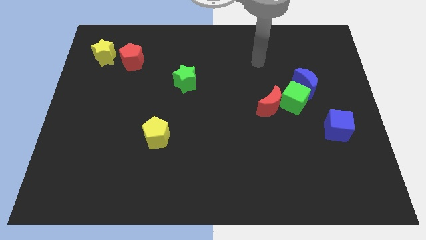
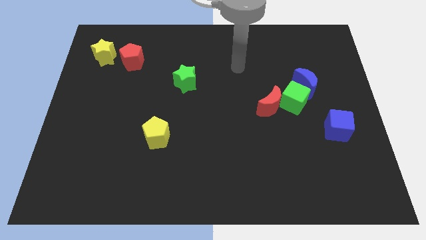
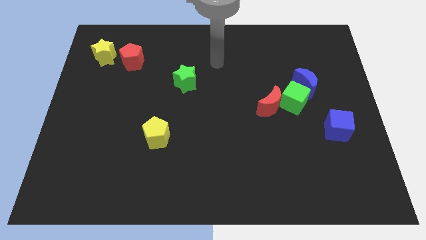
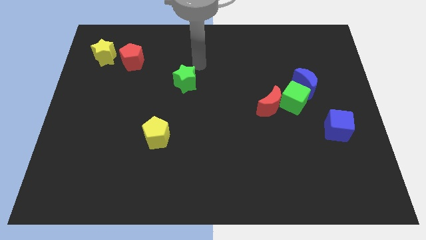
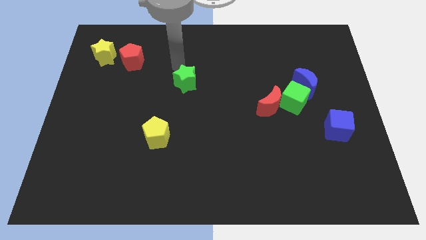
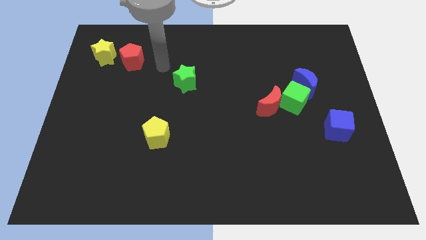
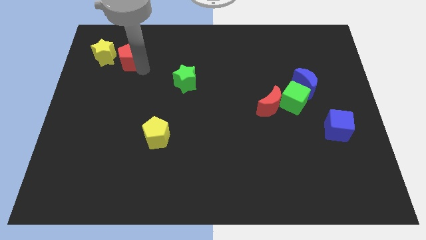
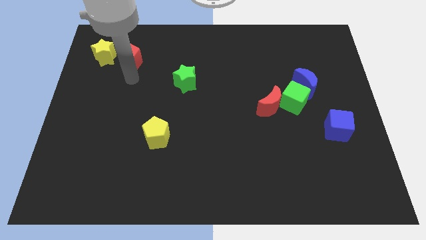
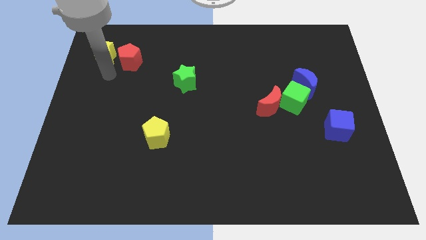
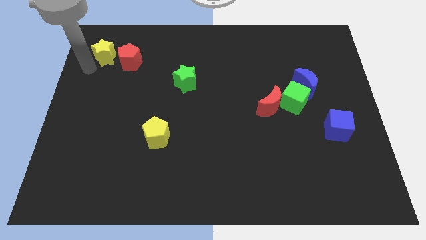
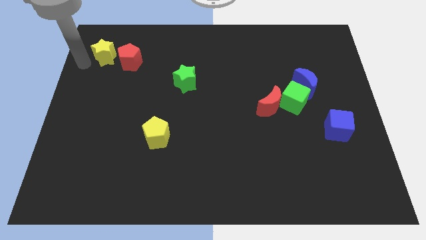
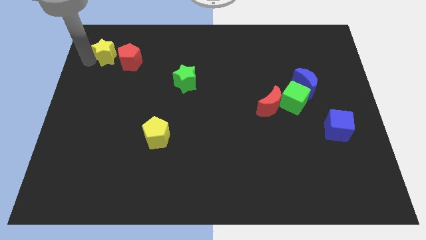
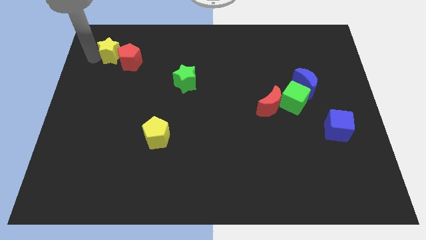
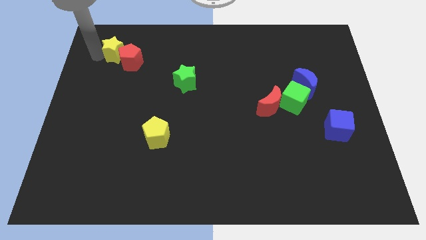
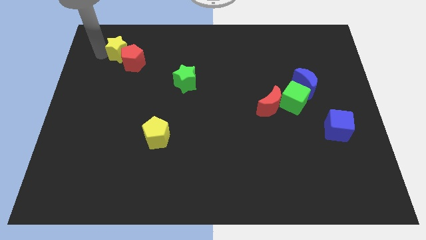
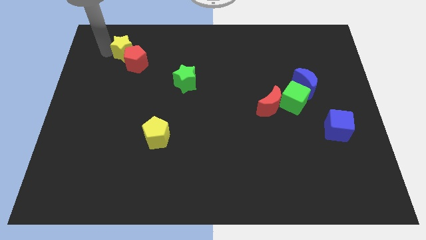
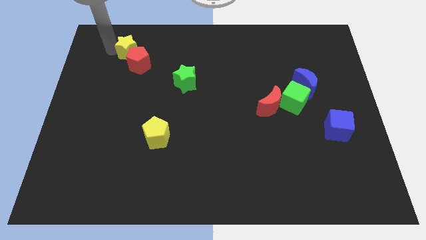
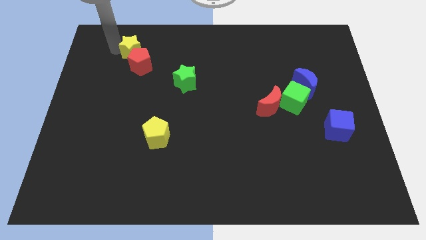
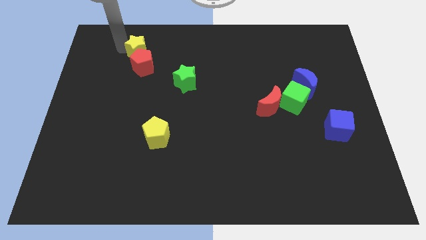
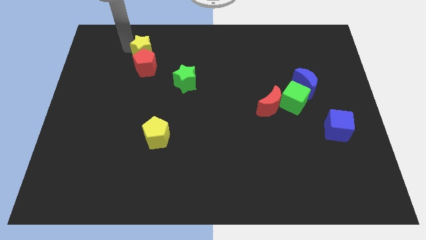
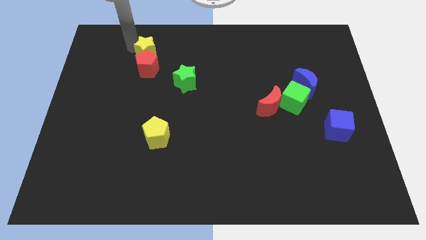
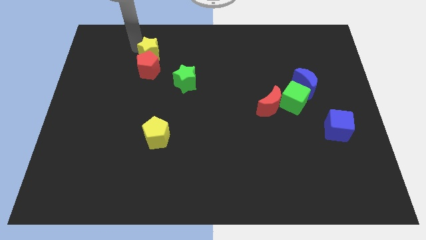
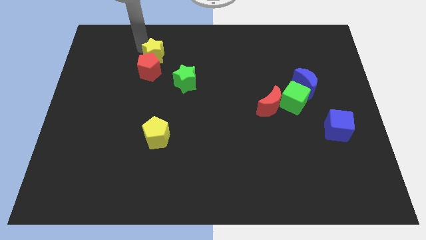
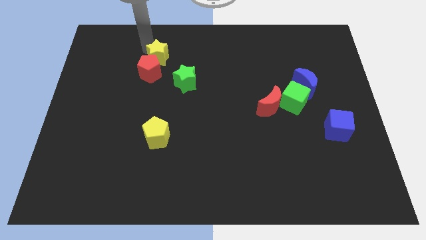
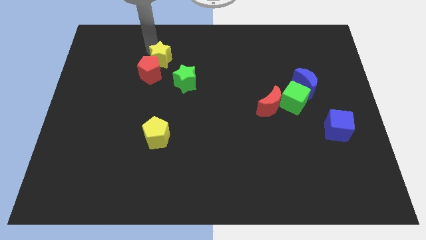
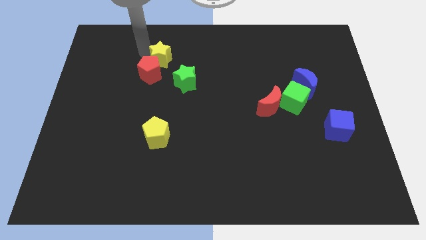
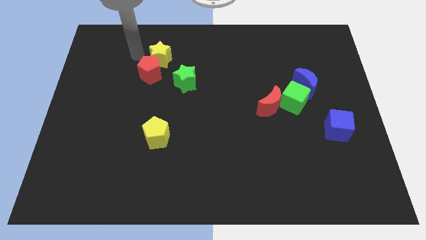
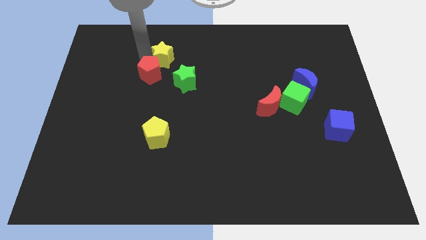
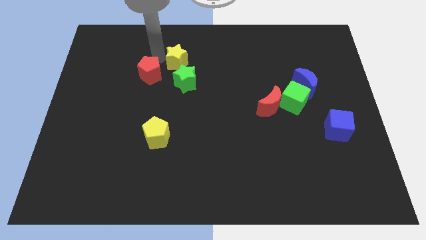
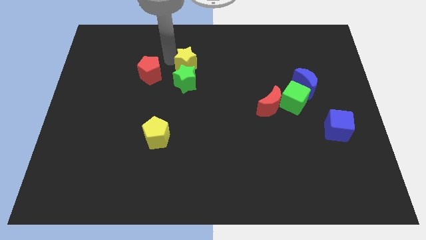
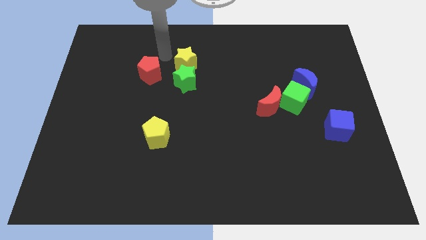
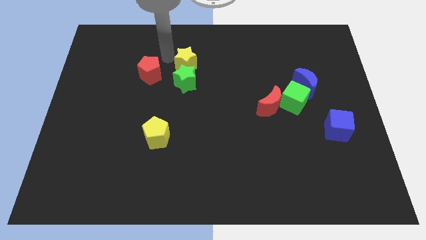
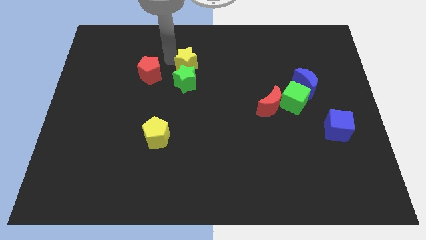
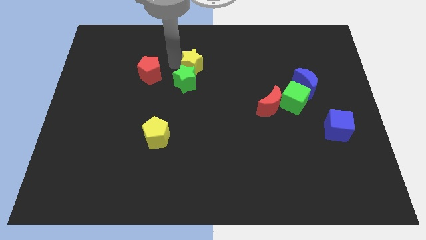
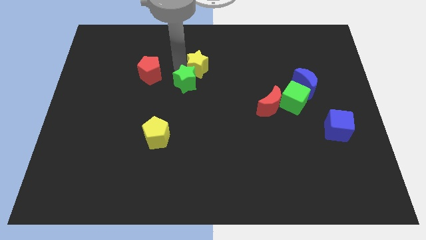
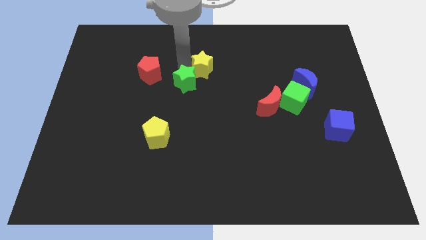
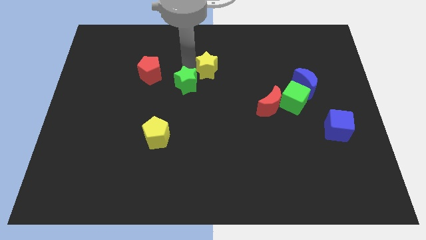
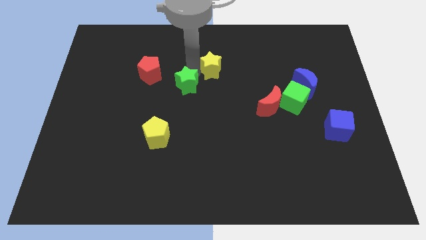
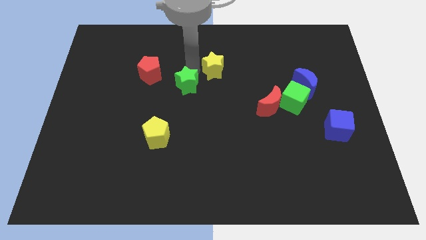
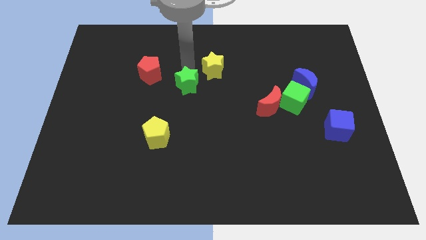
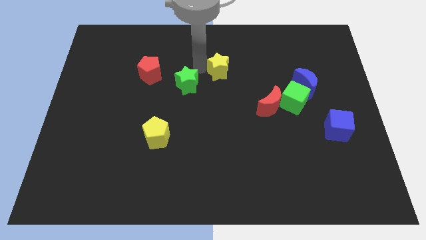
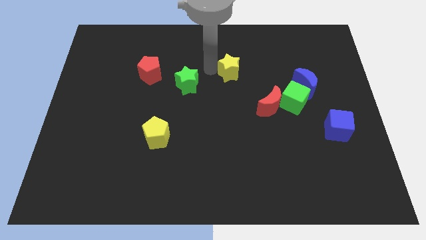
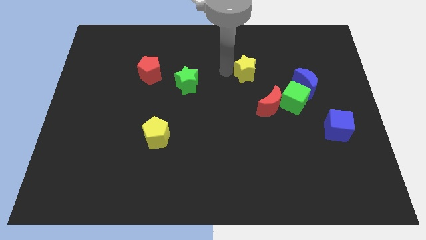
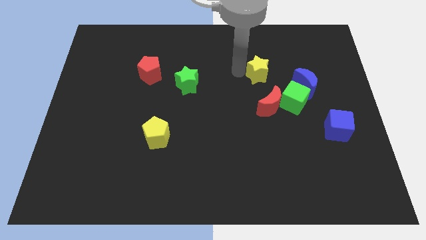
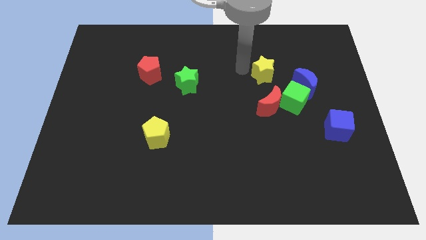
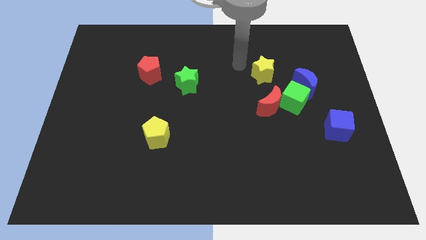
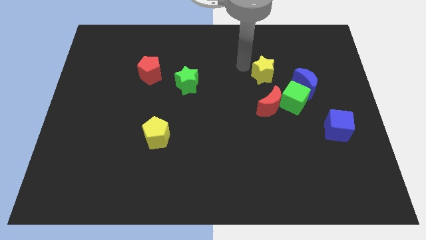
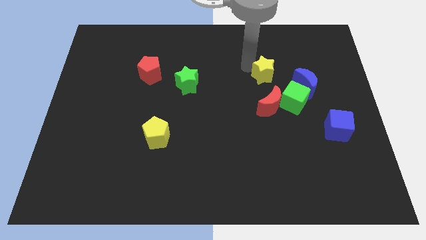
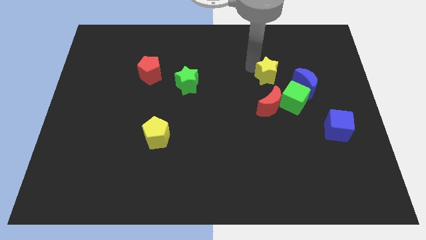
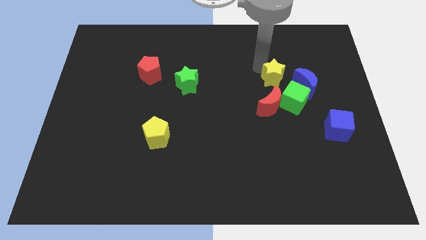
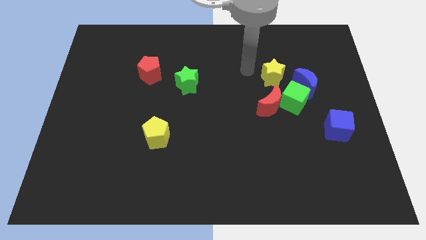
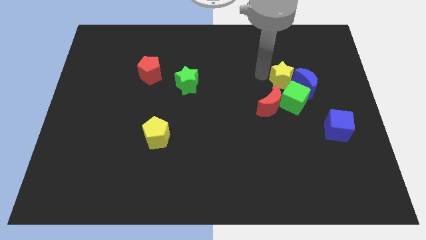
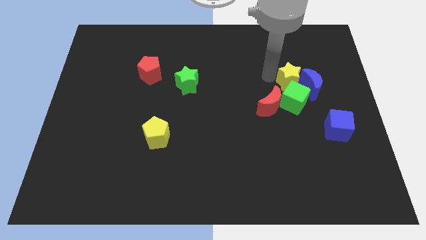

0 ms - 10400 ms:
put the yellow star to the blue moon

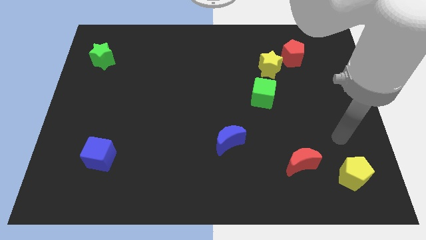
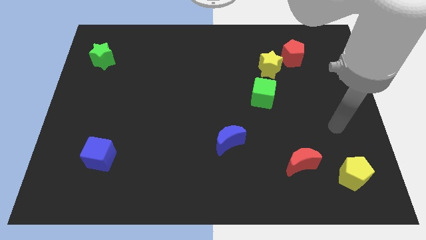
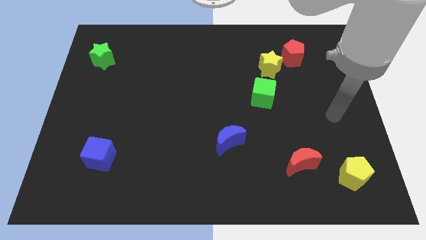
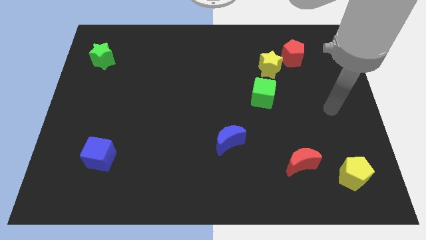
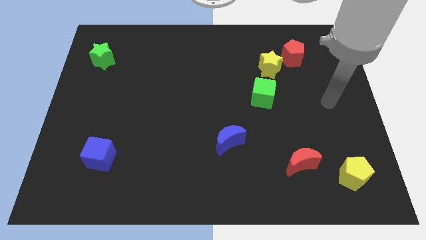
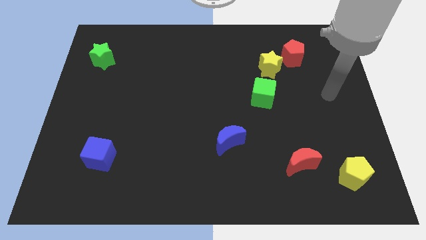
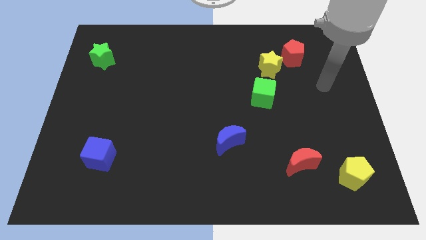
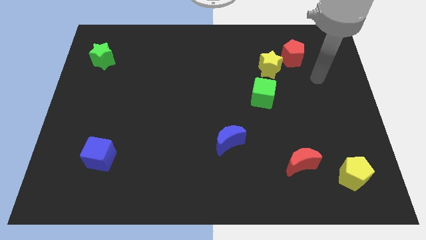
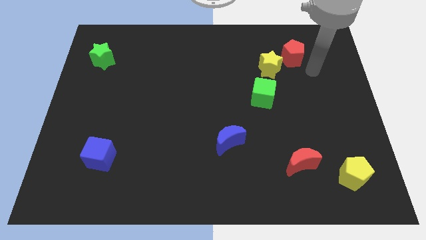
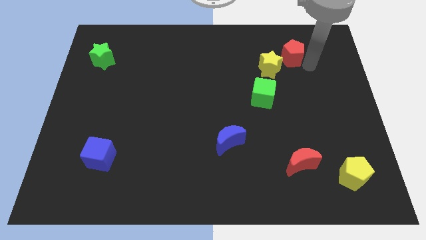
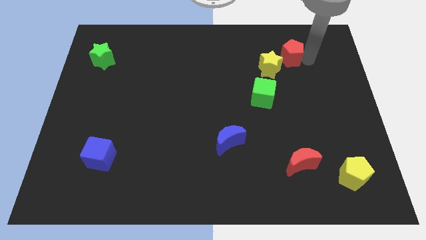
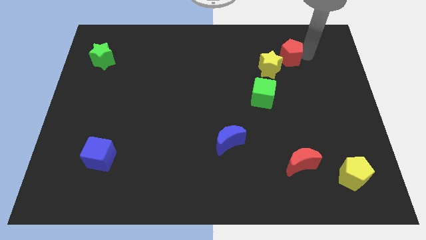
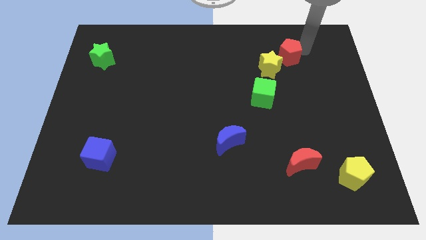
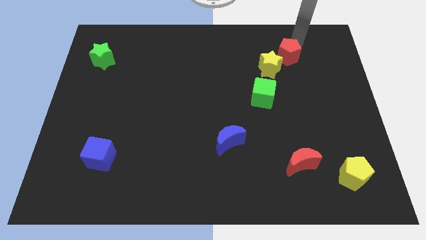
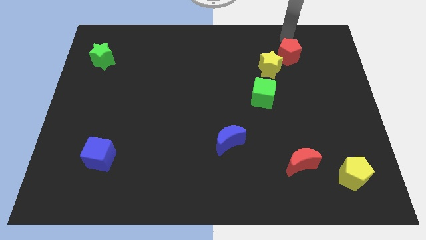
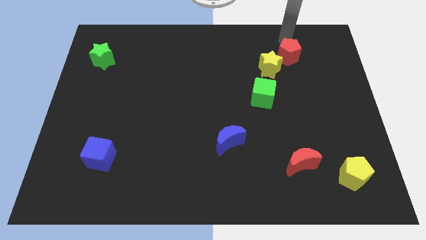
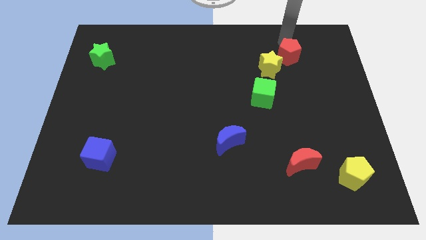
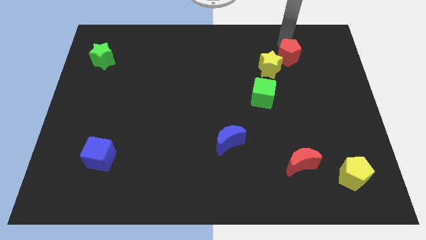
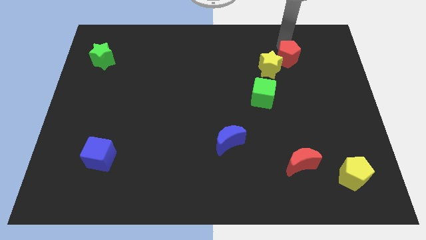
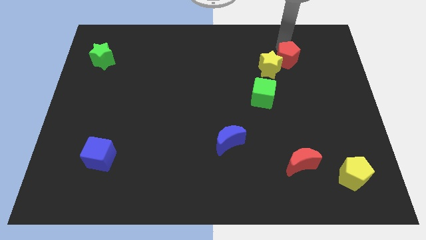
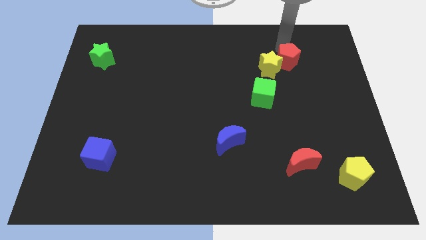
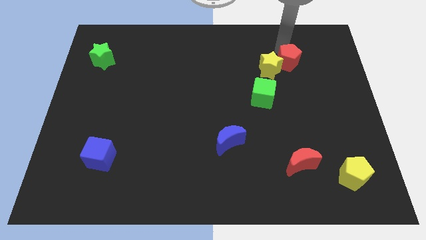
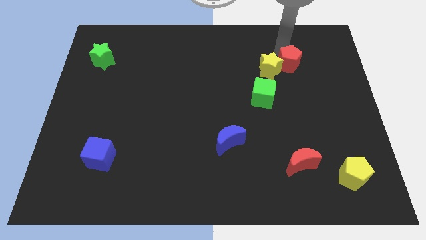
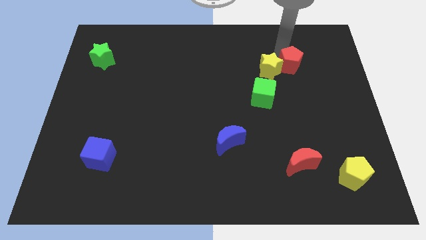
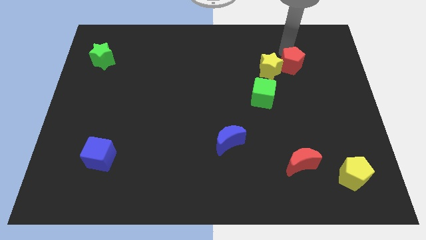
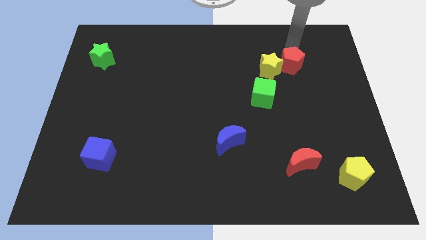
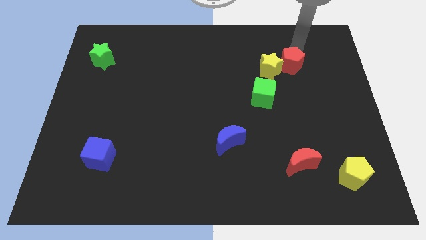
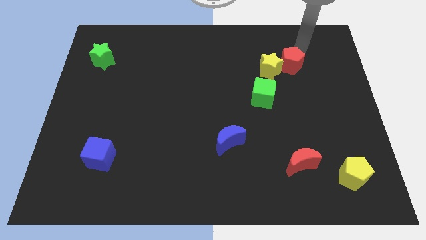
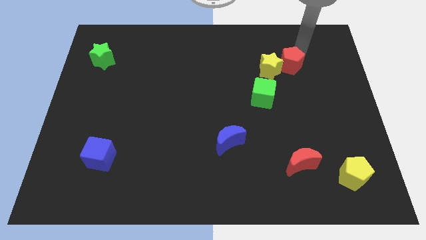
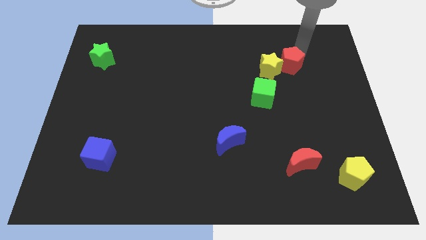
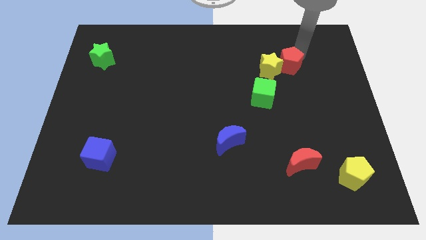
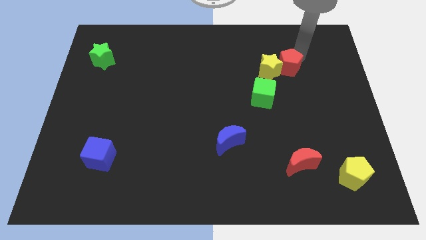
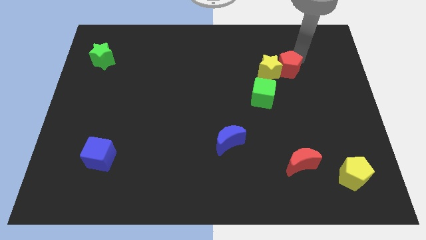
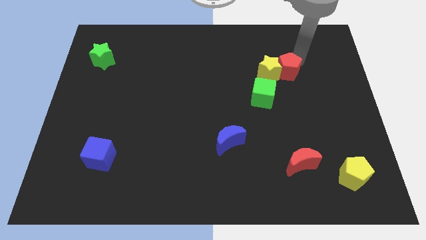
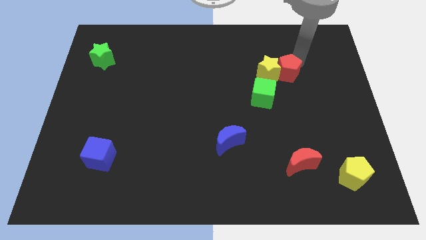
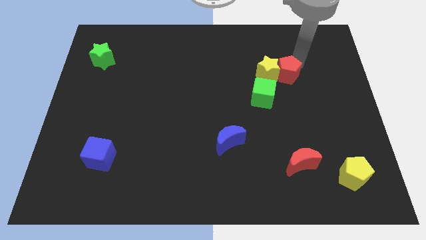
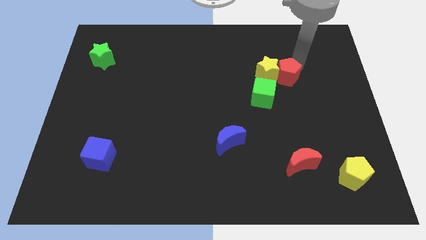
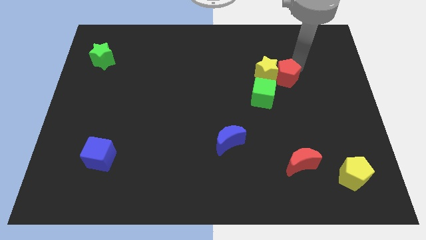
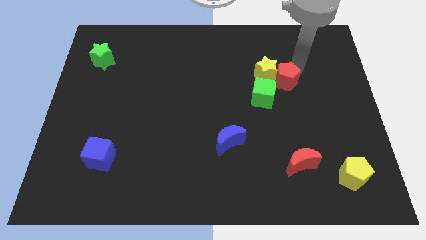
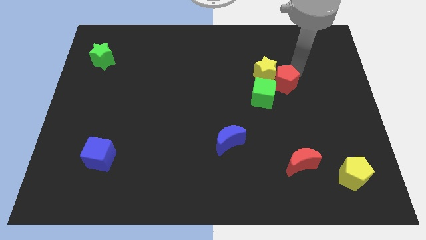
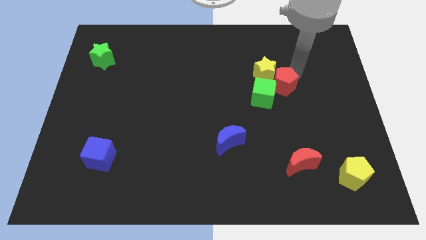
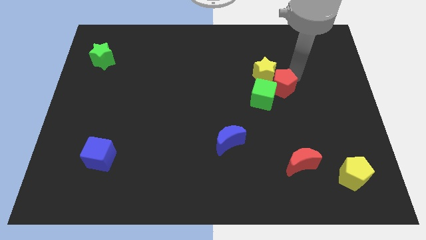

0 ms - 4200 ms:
move the red pentagon next to the green cube
